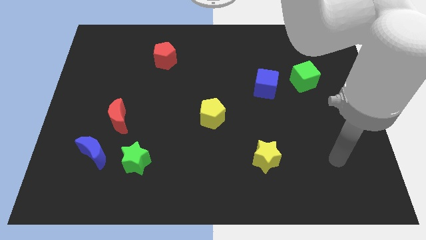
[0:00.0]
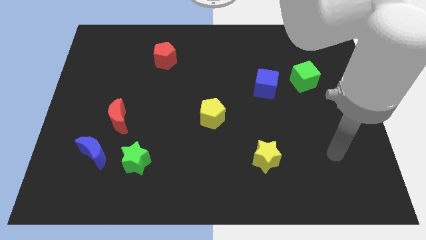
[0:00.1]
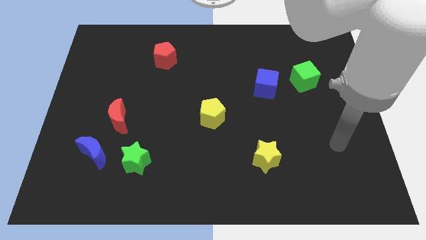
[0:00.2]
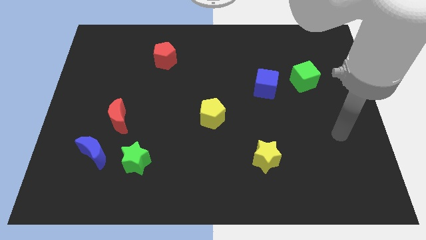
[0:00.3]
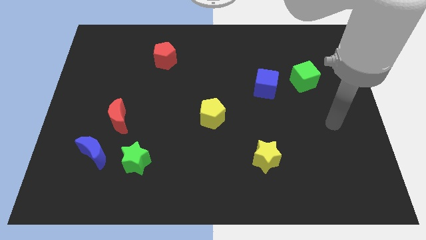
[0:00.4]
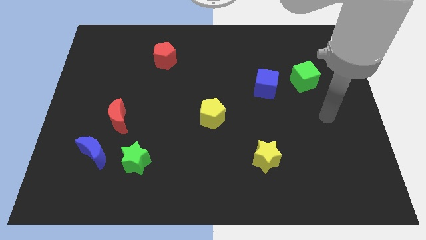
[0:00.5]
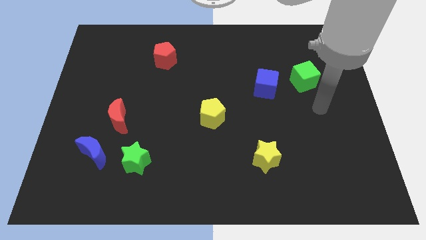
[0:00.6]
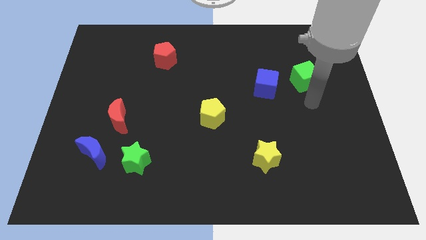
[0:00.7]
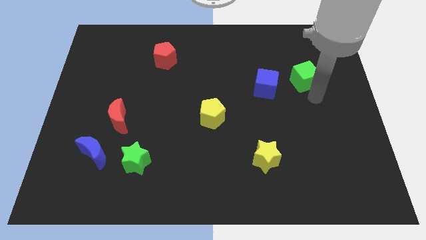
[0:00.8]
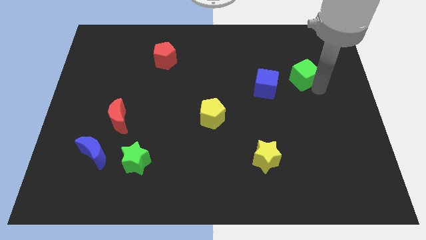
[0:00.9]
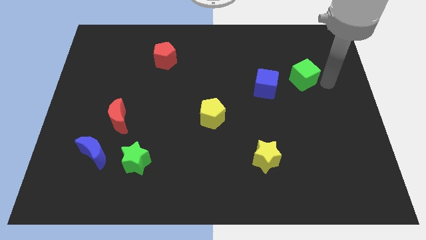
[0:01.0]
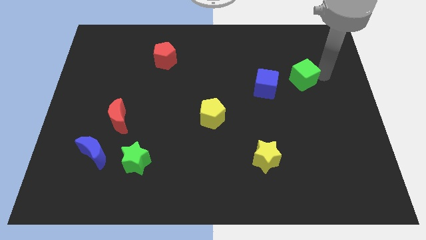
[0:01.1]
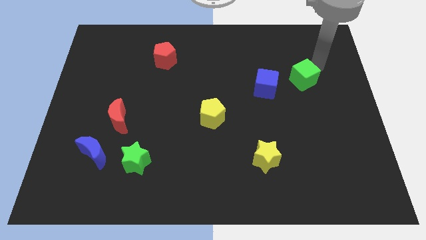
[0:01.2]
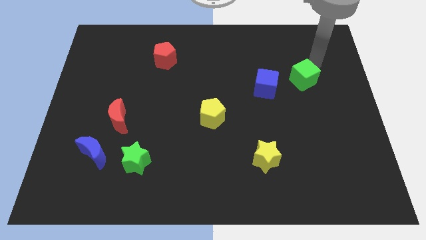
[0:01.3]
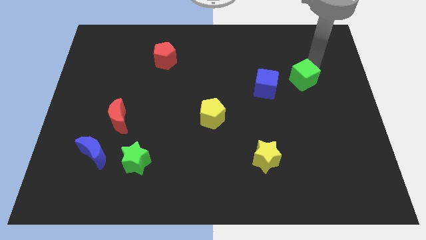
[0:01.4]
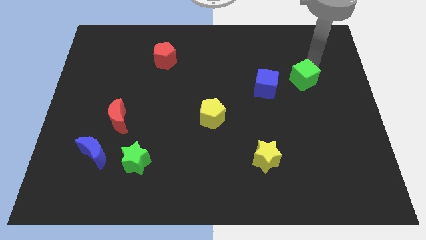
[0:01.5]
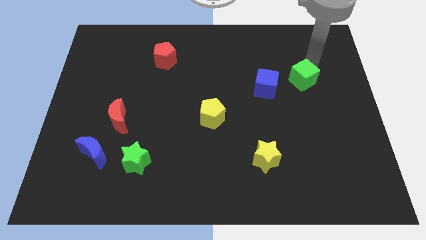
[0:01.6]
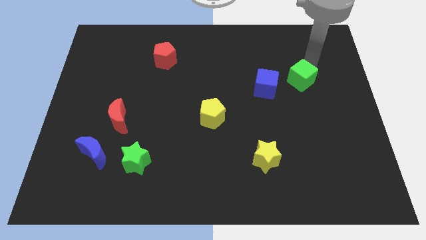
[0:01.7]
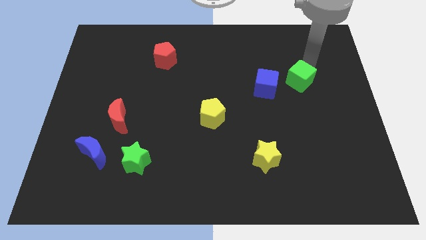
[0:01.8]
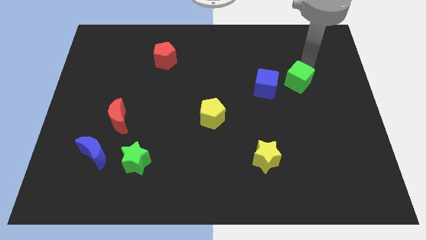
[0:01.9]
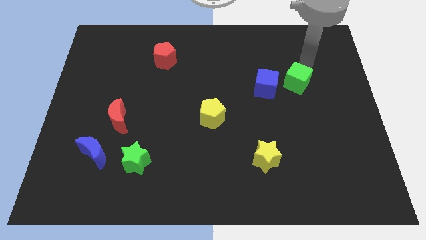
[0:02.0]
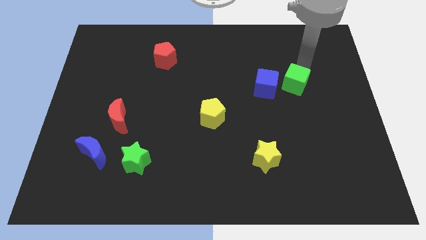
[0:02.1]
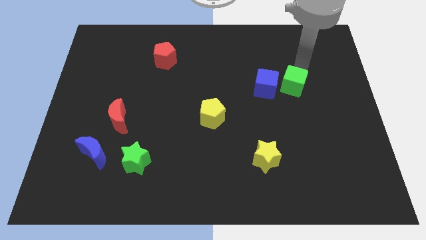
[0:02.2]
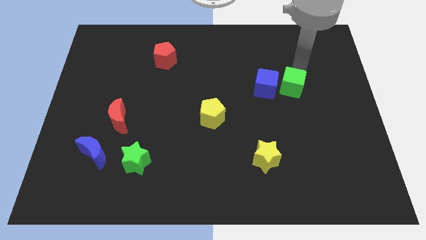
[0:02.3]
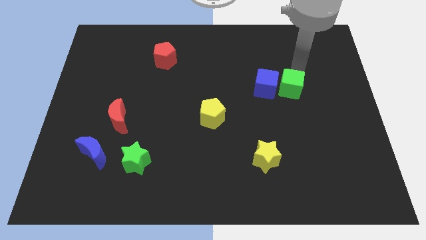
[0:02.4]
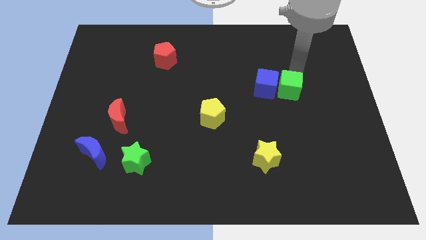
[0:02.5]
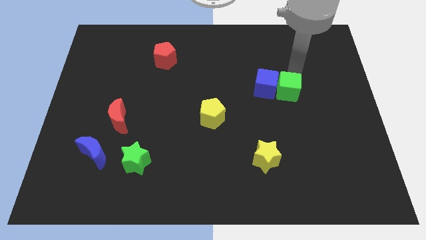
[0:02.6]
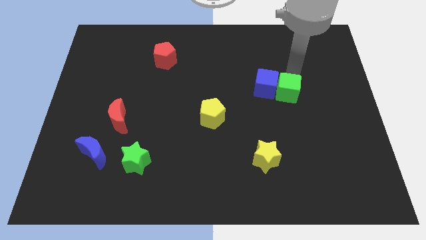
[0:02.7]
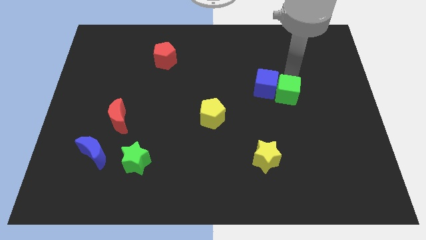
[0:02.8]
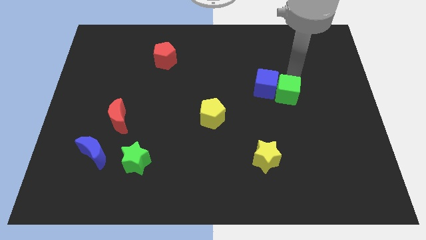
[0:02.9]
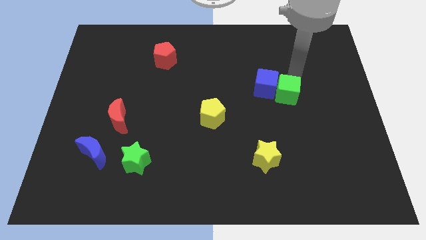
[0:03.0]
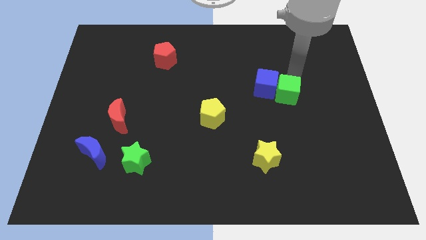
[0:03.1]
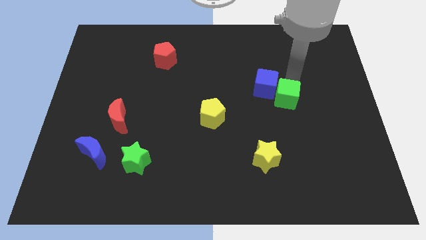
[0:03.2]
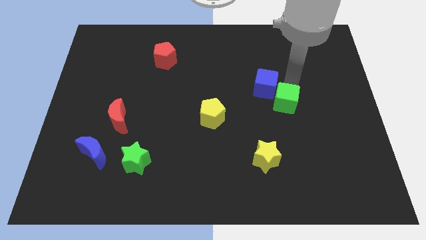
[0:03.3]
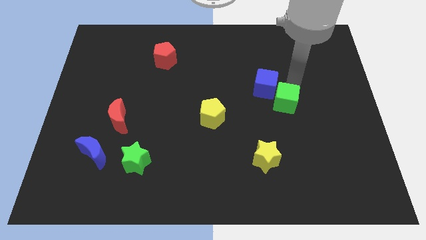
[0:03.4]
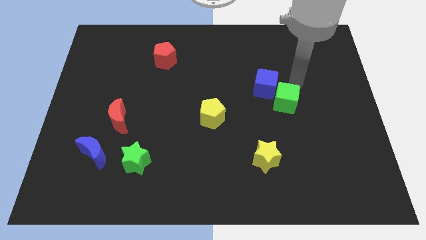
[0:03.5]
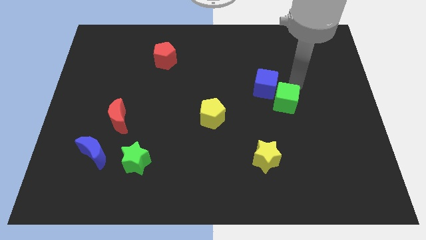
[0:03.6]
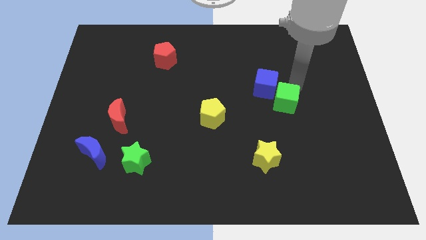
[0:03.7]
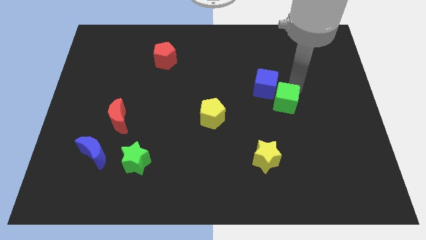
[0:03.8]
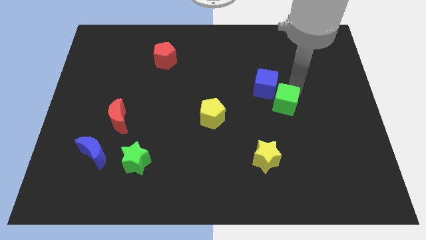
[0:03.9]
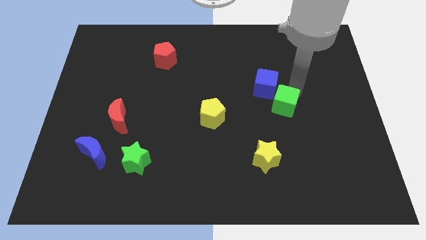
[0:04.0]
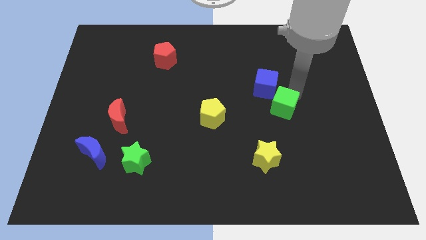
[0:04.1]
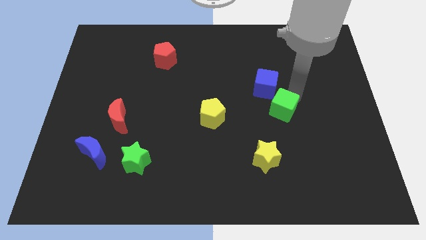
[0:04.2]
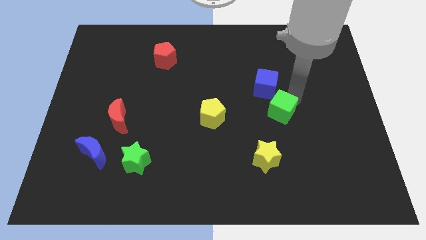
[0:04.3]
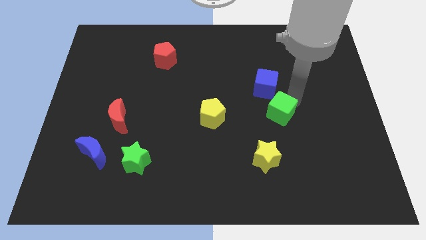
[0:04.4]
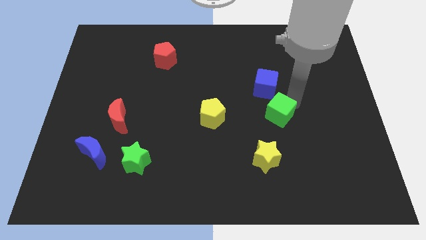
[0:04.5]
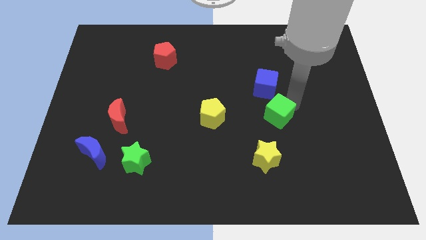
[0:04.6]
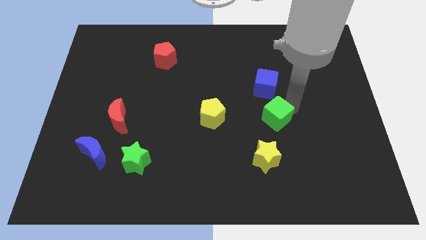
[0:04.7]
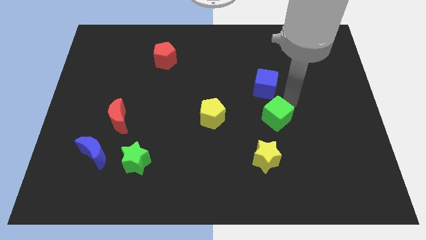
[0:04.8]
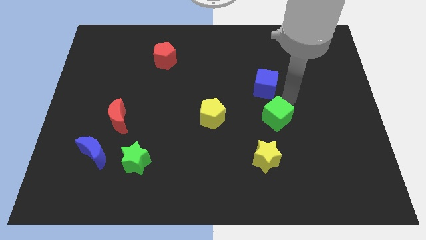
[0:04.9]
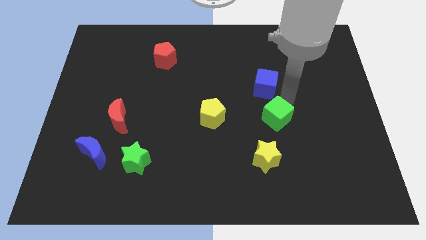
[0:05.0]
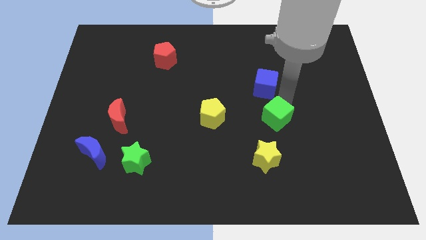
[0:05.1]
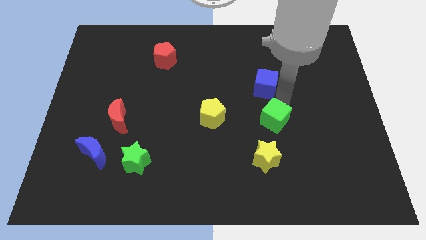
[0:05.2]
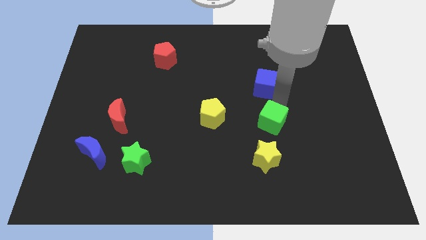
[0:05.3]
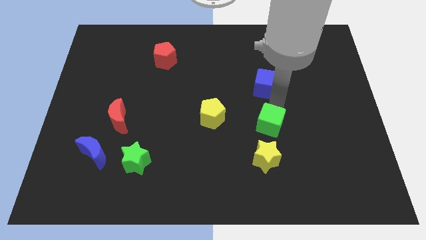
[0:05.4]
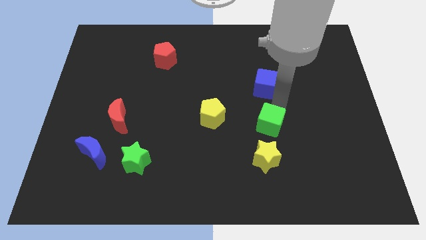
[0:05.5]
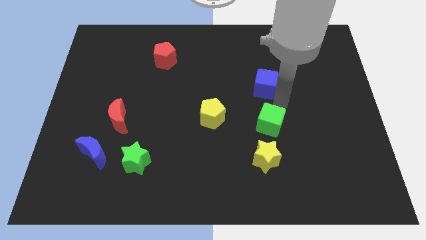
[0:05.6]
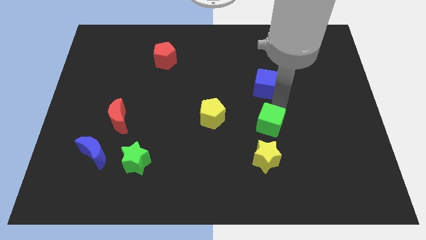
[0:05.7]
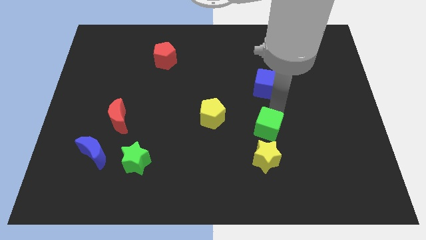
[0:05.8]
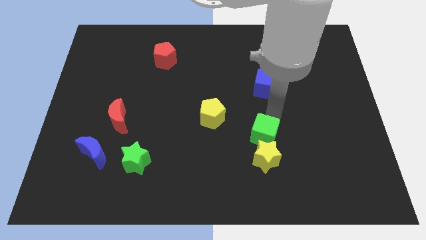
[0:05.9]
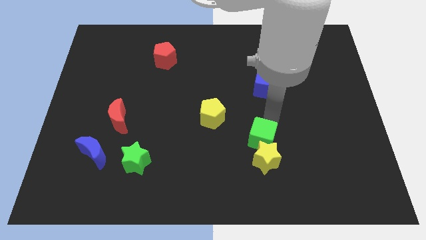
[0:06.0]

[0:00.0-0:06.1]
slide the green cube towards the yellow star
